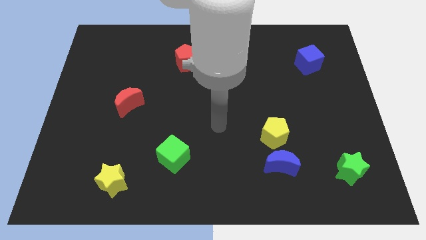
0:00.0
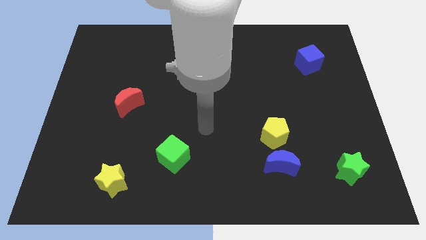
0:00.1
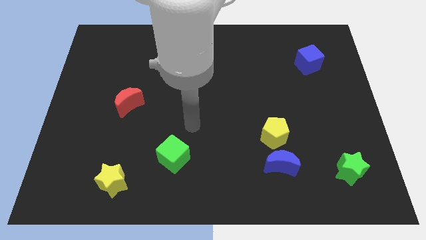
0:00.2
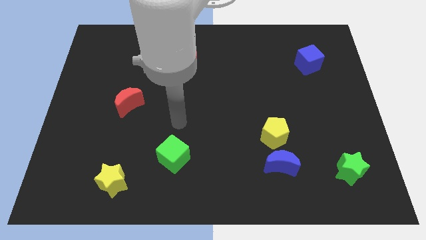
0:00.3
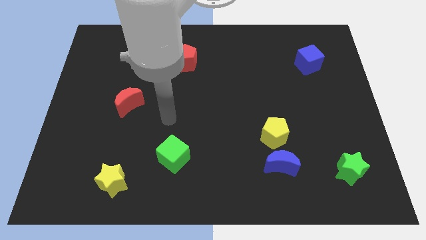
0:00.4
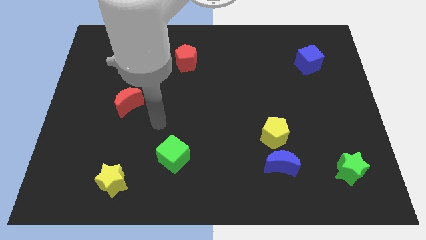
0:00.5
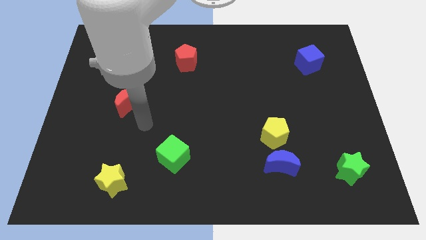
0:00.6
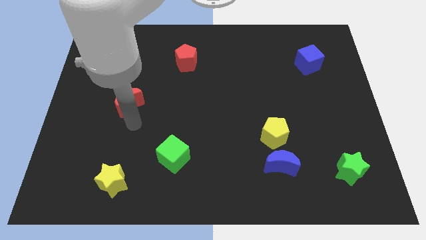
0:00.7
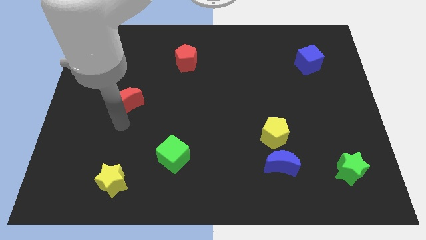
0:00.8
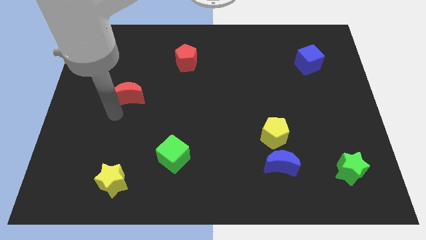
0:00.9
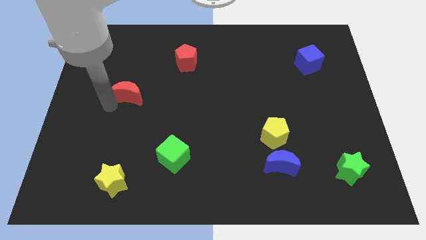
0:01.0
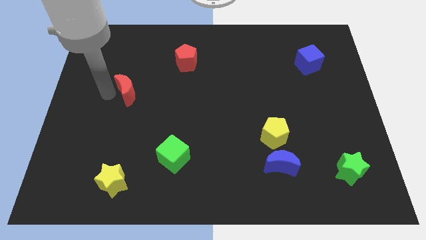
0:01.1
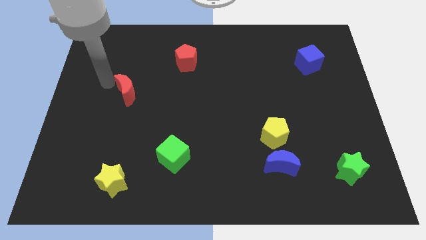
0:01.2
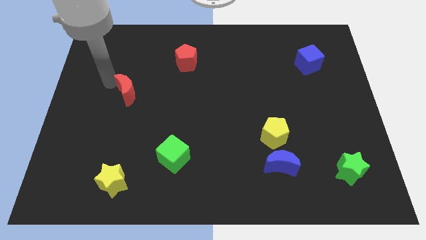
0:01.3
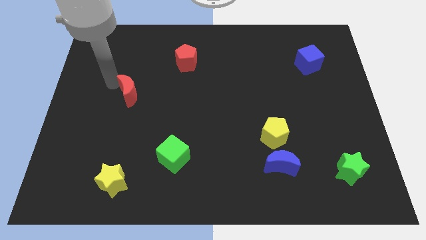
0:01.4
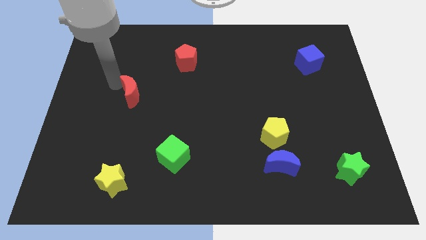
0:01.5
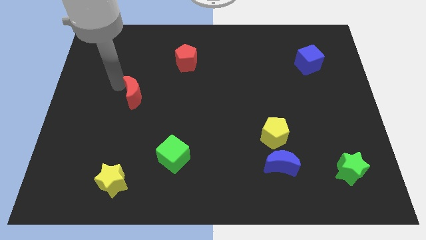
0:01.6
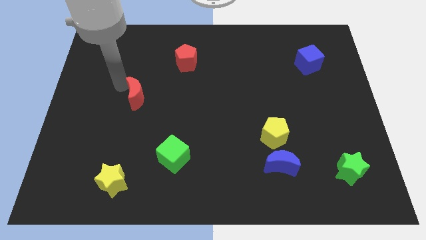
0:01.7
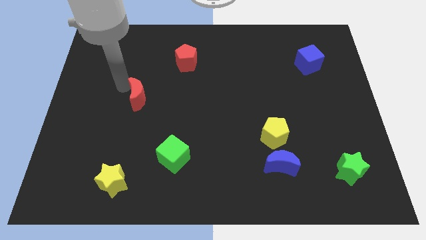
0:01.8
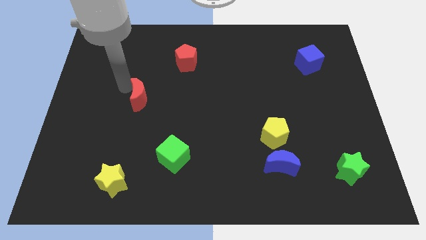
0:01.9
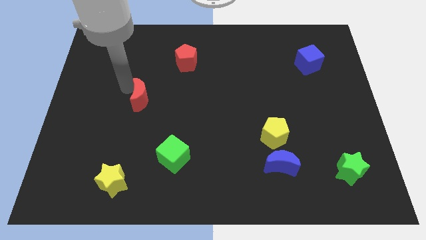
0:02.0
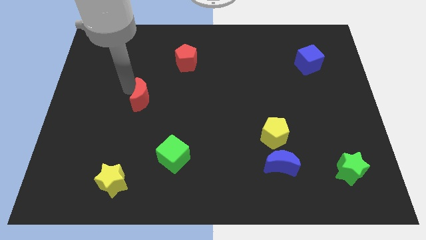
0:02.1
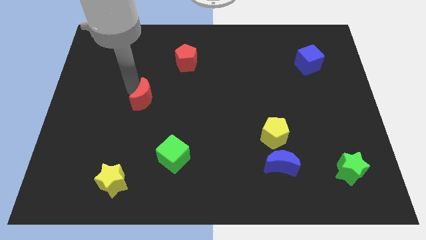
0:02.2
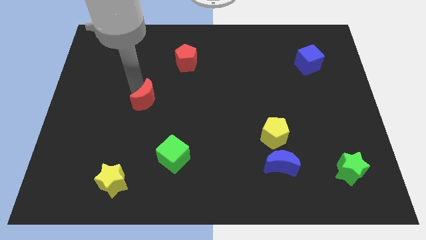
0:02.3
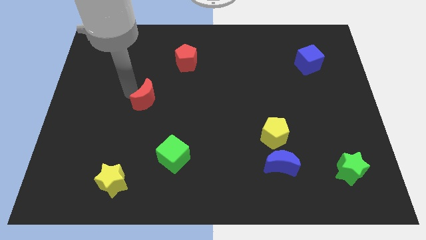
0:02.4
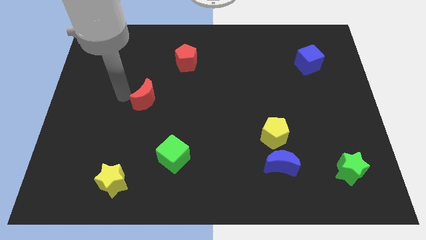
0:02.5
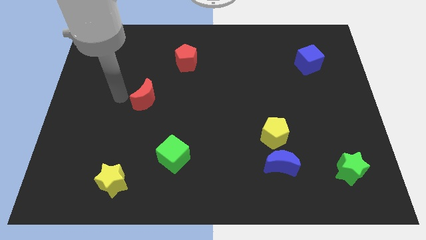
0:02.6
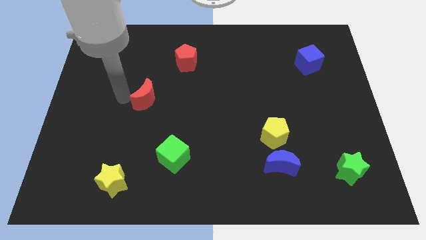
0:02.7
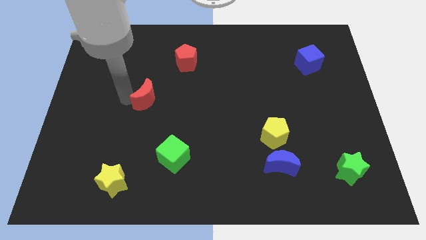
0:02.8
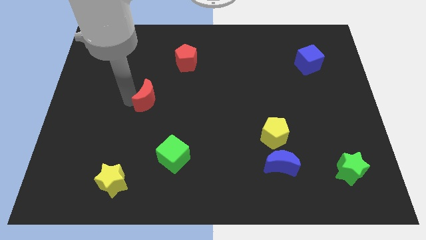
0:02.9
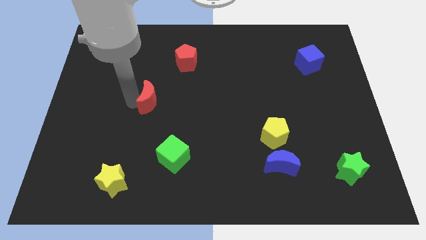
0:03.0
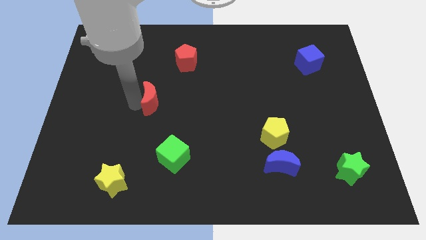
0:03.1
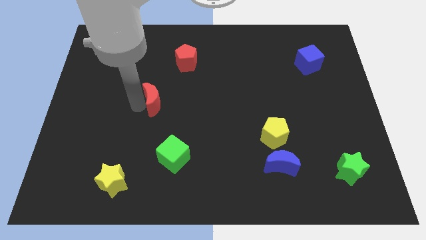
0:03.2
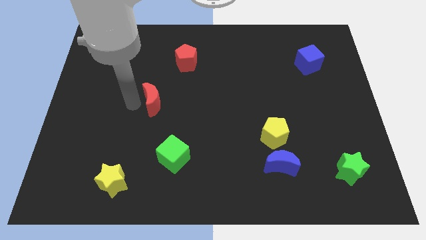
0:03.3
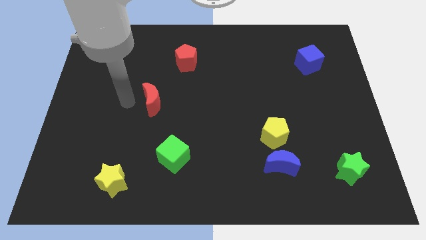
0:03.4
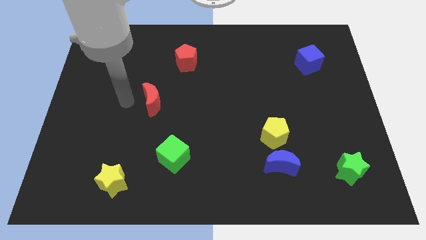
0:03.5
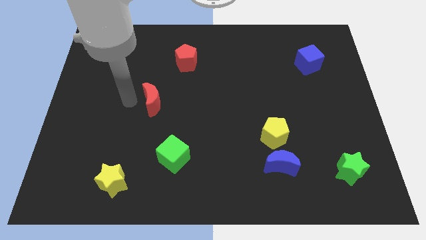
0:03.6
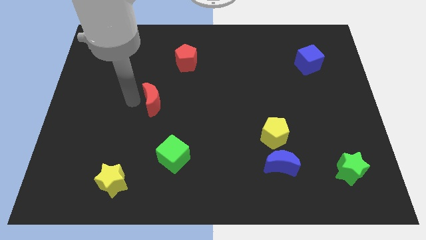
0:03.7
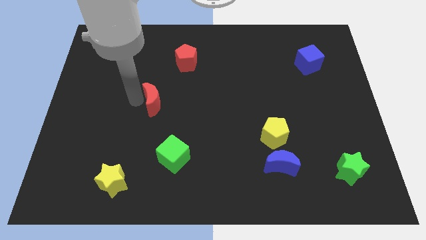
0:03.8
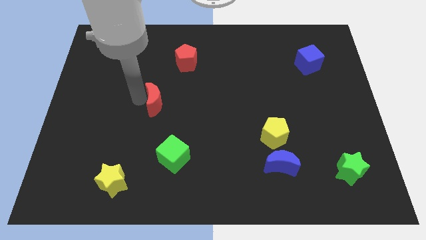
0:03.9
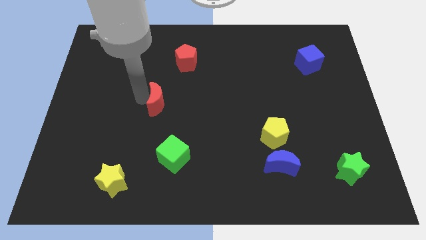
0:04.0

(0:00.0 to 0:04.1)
move the red moon to the right a little

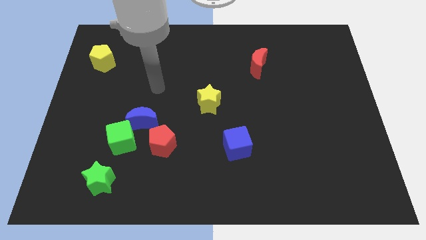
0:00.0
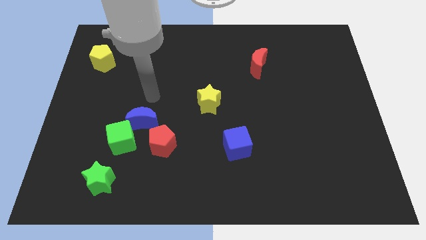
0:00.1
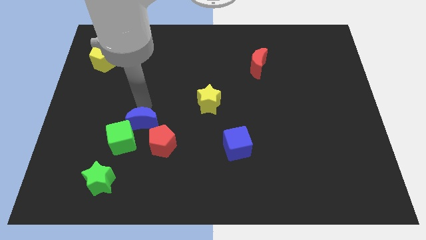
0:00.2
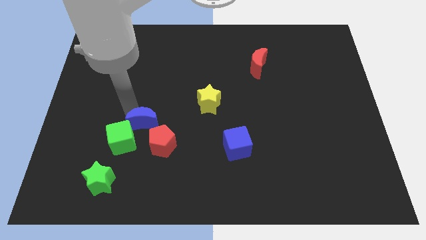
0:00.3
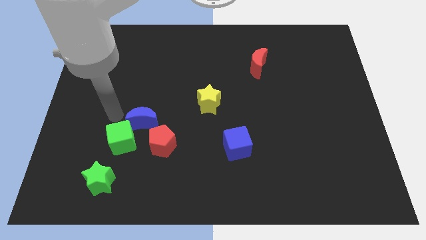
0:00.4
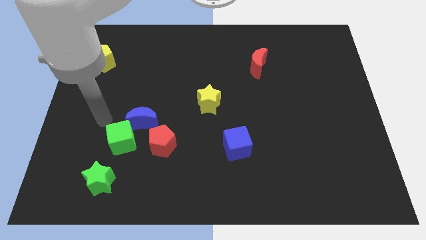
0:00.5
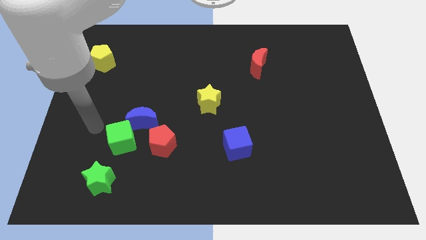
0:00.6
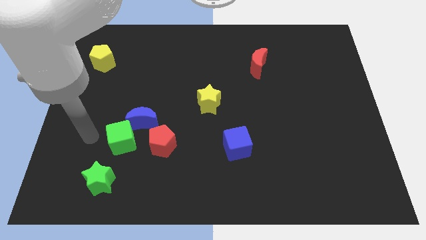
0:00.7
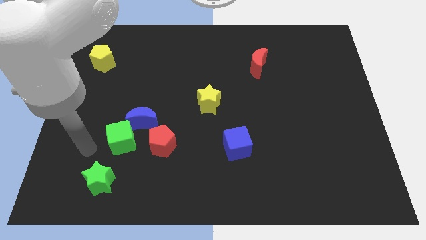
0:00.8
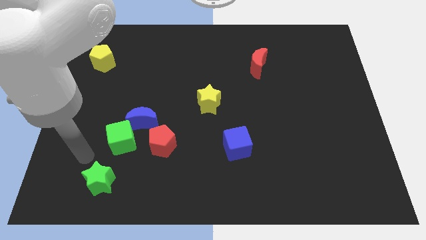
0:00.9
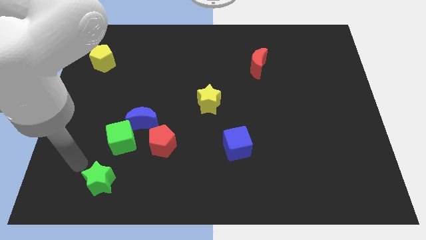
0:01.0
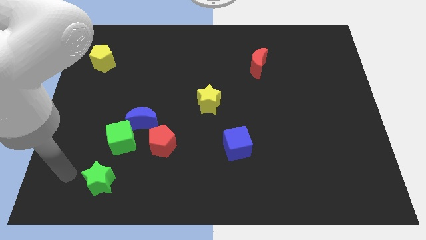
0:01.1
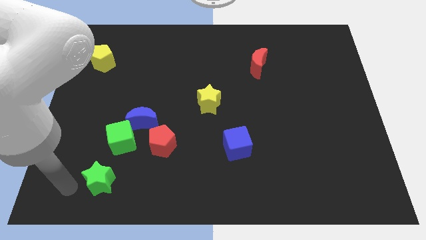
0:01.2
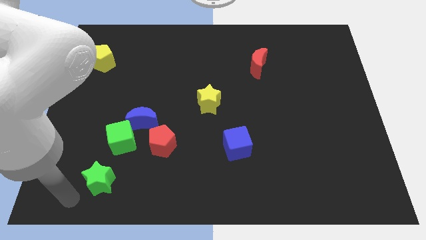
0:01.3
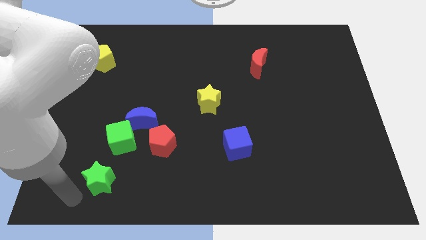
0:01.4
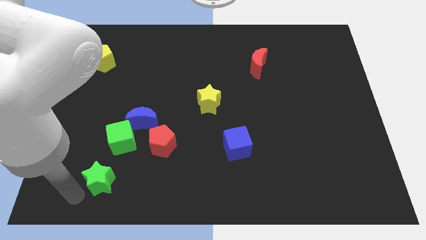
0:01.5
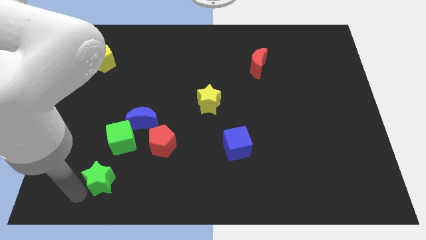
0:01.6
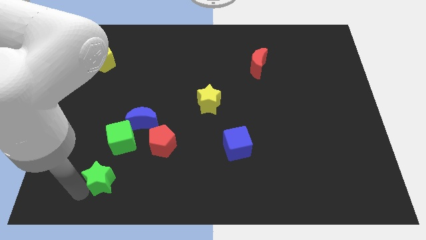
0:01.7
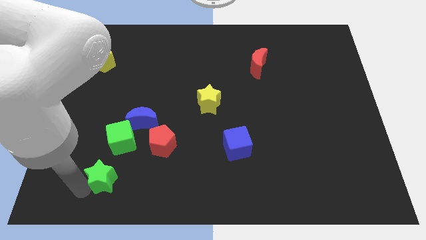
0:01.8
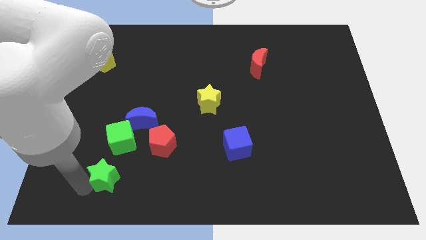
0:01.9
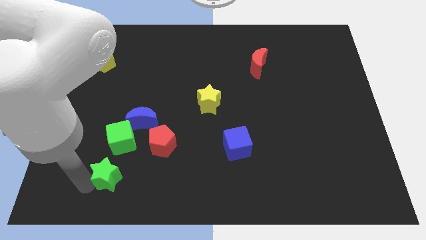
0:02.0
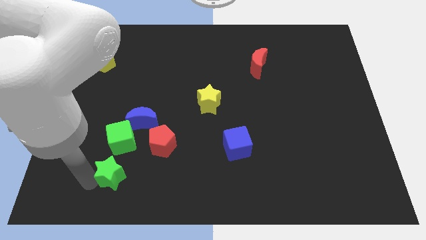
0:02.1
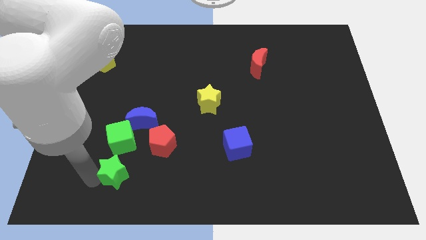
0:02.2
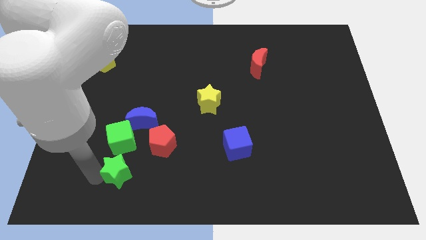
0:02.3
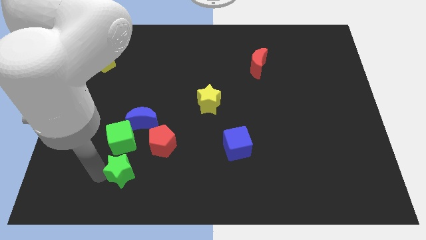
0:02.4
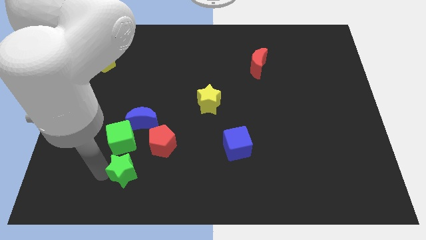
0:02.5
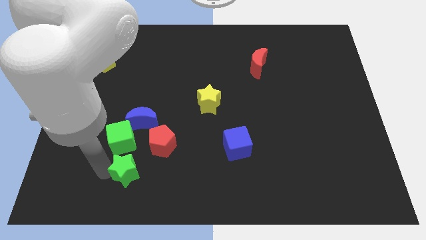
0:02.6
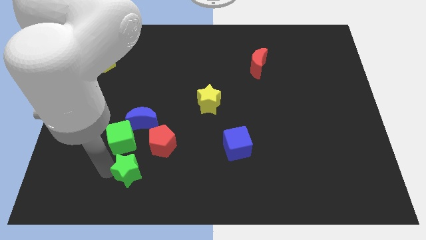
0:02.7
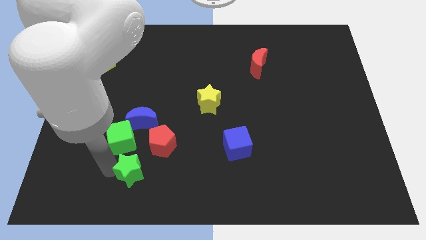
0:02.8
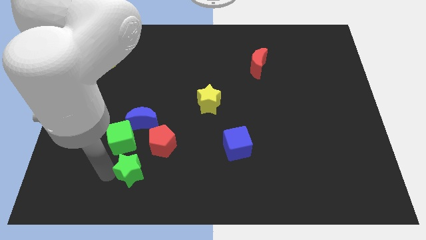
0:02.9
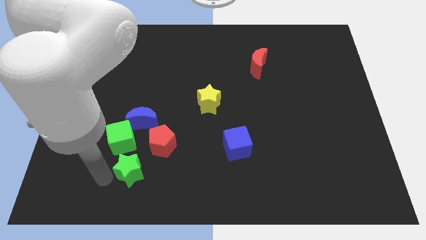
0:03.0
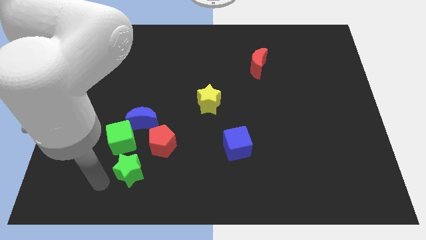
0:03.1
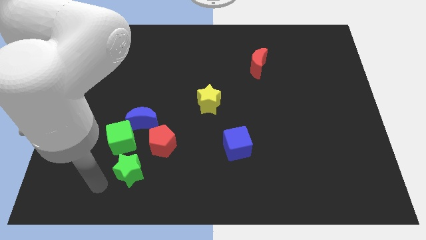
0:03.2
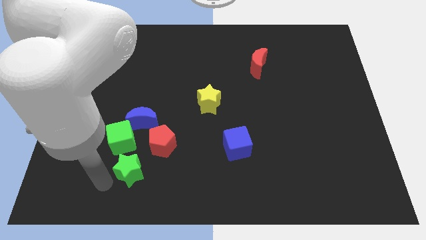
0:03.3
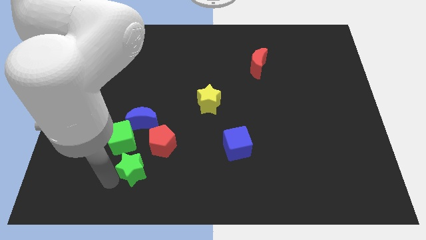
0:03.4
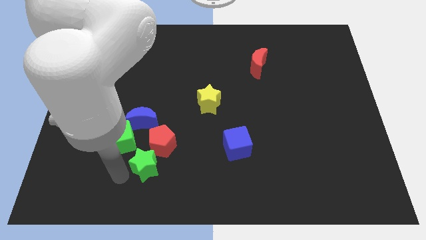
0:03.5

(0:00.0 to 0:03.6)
move the green star somewhat upwards and then right

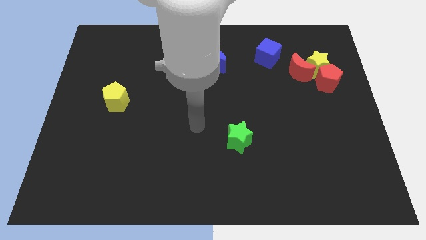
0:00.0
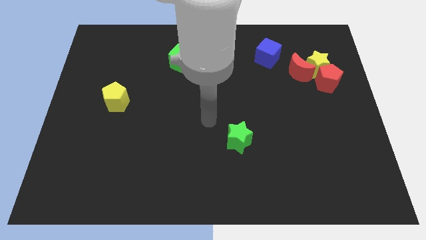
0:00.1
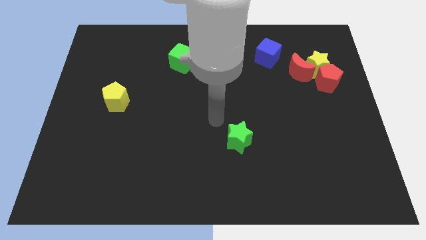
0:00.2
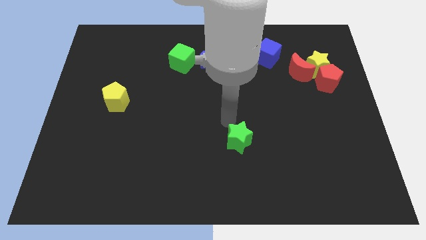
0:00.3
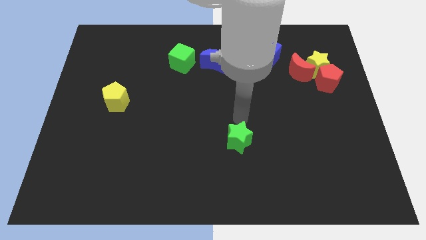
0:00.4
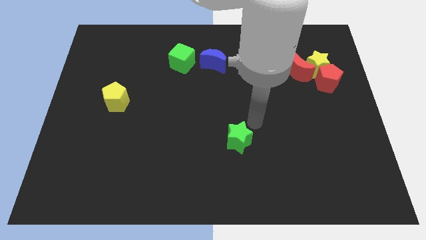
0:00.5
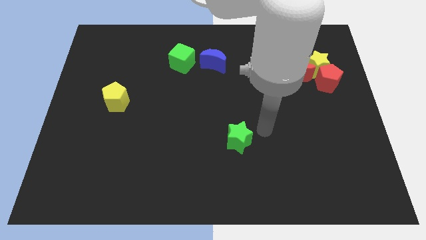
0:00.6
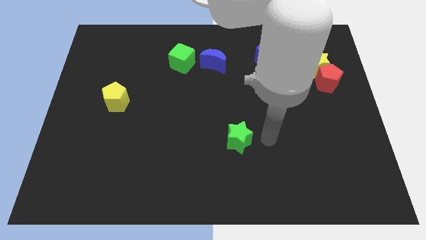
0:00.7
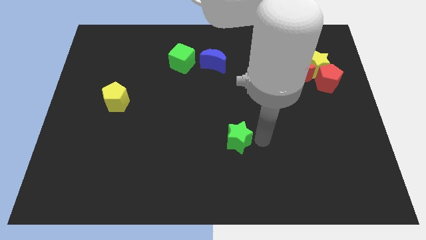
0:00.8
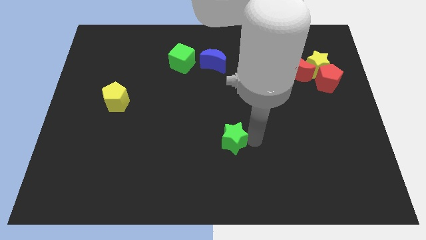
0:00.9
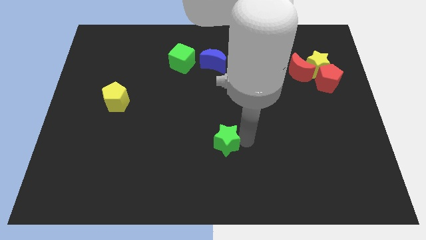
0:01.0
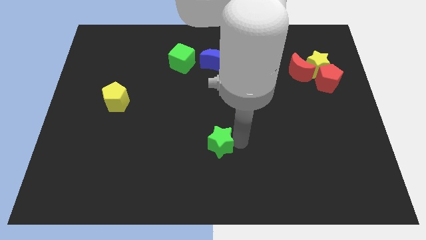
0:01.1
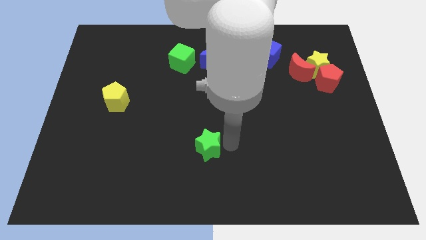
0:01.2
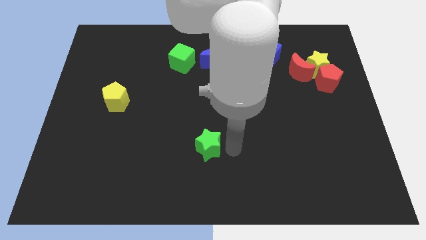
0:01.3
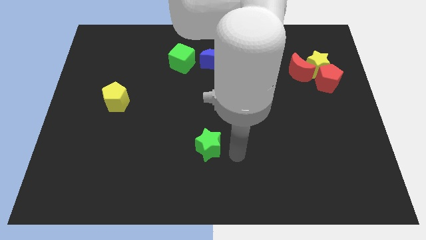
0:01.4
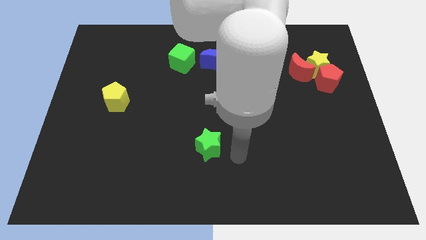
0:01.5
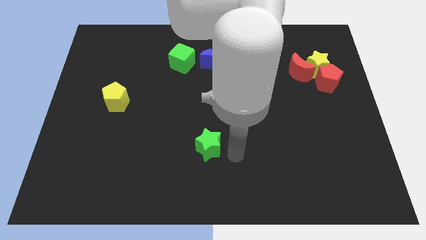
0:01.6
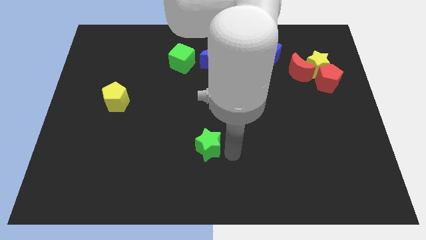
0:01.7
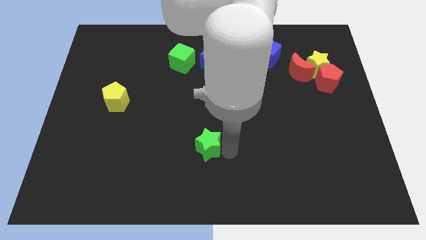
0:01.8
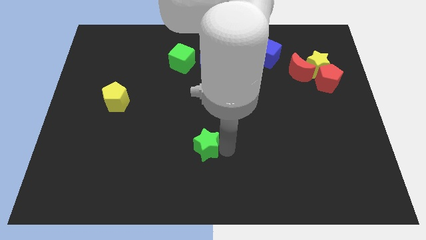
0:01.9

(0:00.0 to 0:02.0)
slightly move the green star to the left
